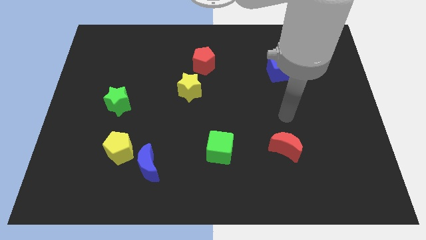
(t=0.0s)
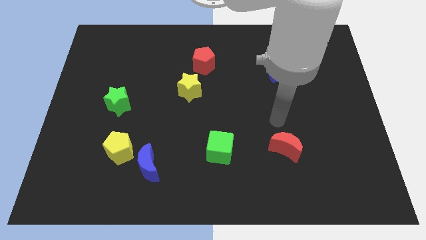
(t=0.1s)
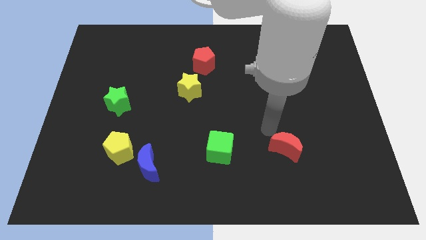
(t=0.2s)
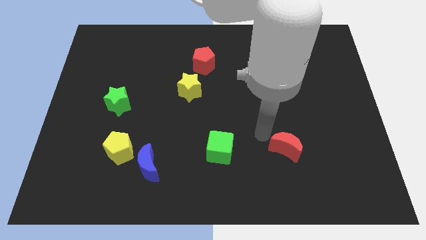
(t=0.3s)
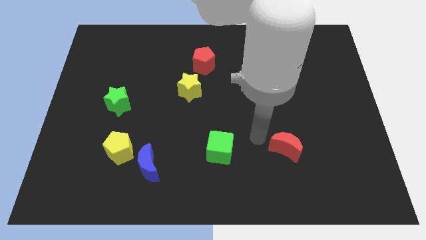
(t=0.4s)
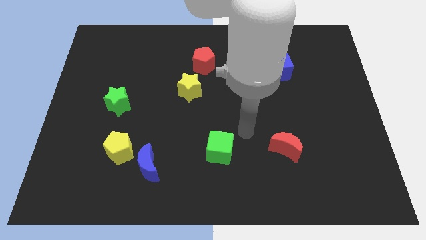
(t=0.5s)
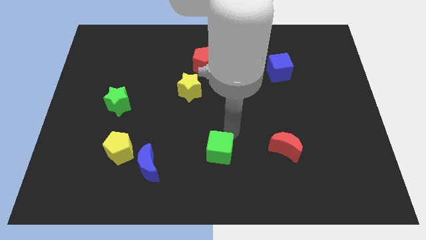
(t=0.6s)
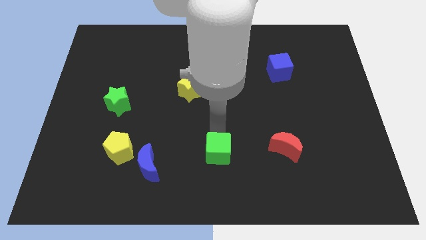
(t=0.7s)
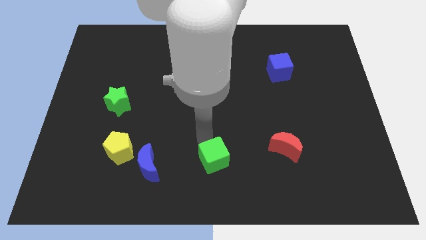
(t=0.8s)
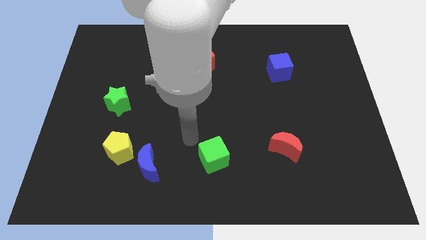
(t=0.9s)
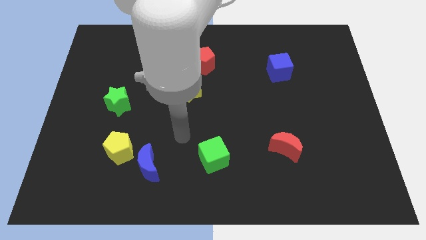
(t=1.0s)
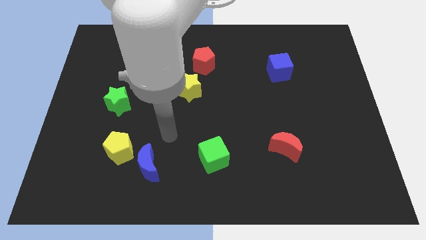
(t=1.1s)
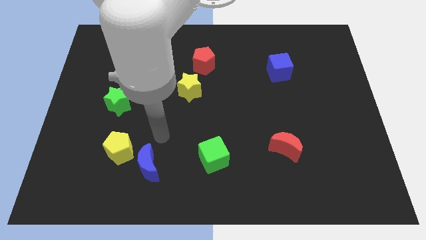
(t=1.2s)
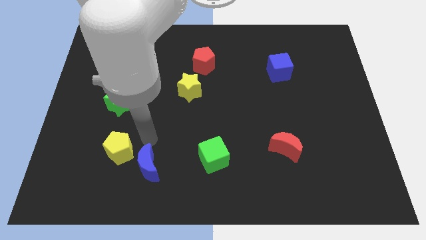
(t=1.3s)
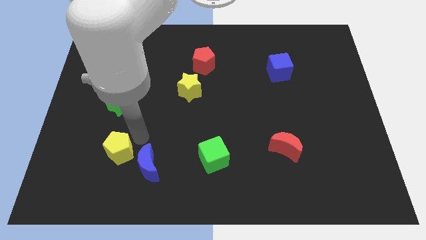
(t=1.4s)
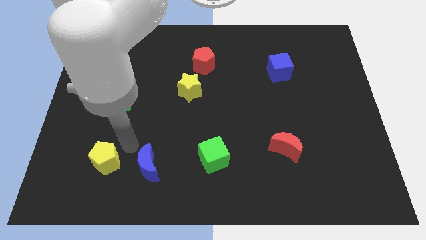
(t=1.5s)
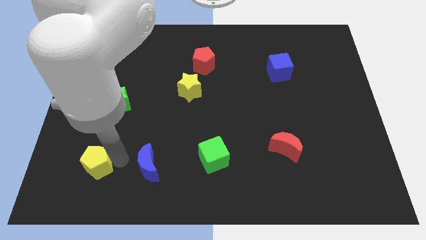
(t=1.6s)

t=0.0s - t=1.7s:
pull the blue moon apart from the yellow pentagon

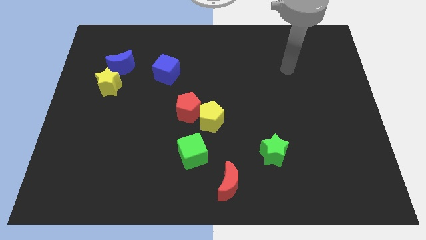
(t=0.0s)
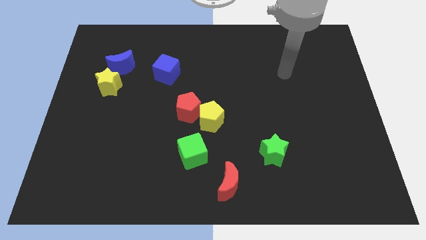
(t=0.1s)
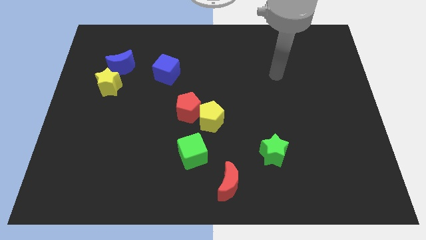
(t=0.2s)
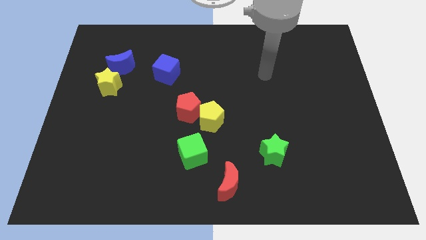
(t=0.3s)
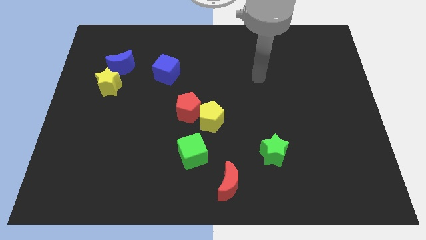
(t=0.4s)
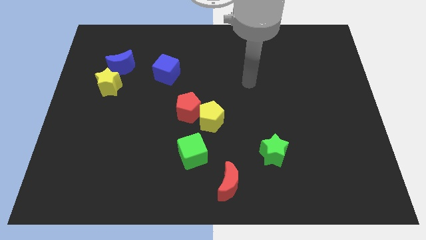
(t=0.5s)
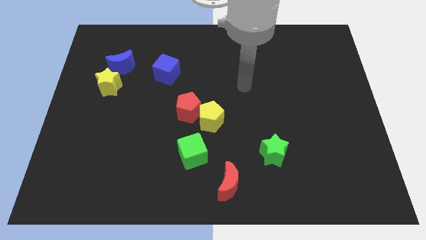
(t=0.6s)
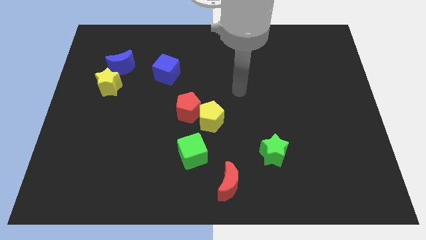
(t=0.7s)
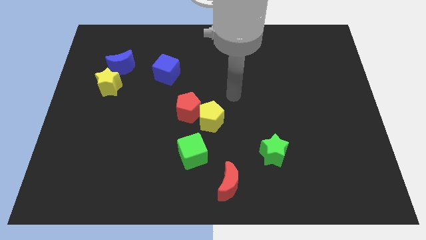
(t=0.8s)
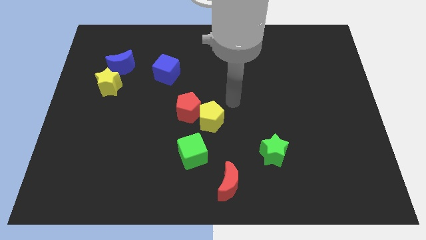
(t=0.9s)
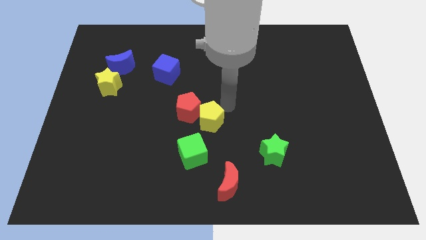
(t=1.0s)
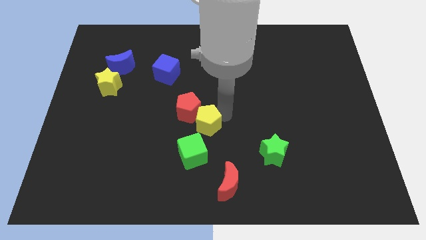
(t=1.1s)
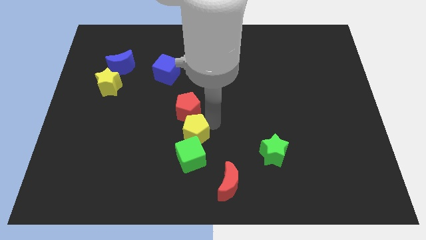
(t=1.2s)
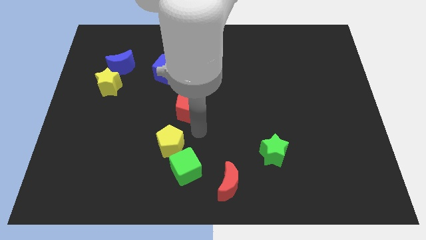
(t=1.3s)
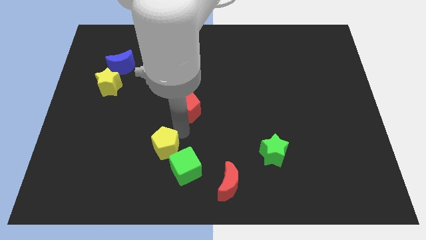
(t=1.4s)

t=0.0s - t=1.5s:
pull the red pentagon apart from the yellow pentagon

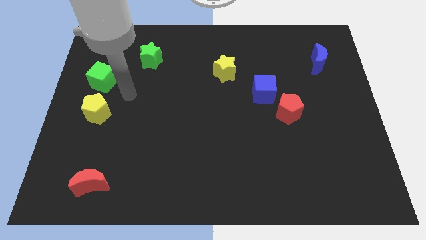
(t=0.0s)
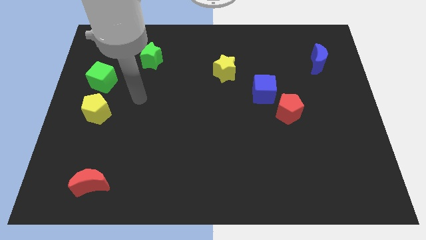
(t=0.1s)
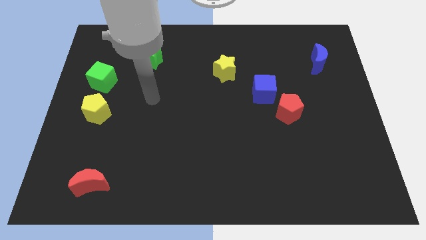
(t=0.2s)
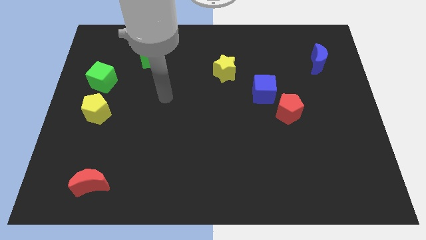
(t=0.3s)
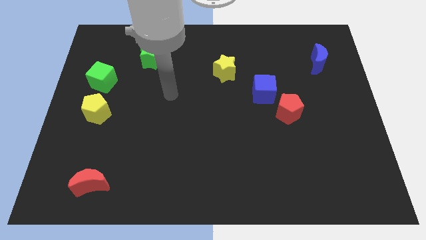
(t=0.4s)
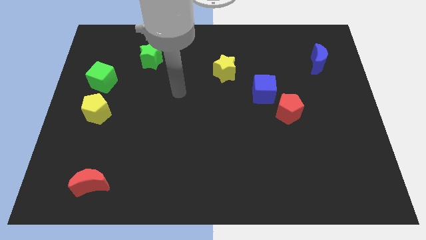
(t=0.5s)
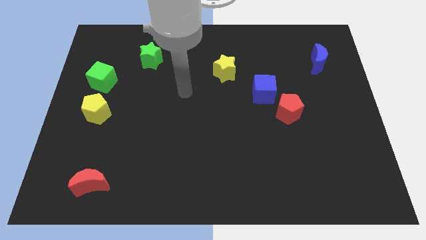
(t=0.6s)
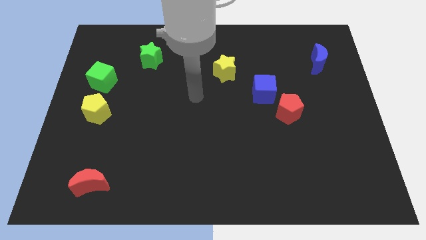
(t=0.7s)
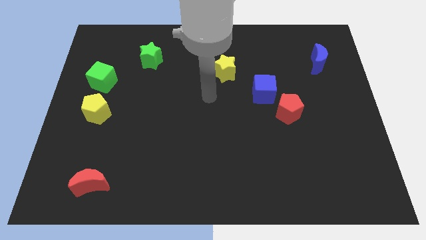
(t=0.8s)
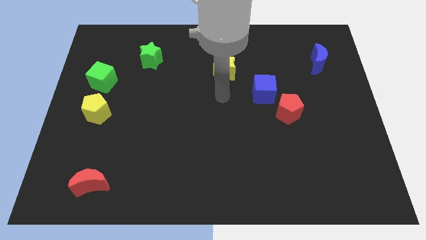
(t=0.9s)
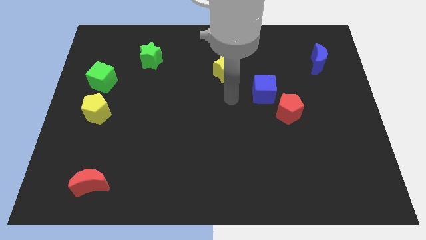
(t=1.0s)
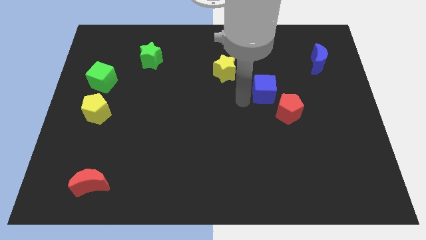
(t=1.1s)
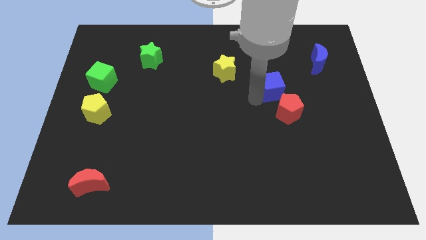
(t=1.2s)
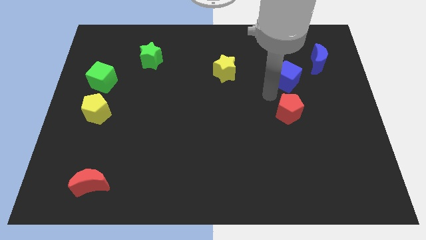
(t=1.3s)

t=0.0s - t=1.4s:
separate the red pentagon from the blue cube

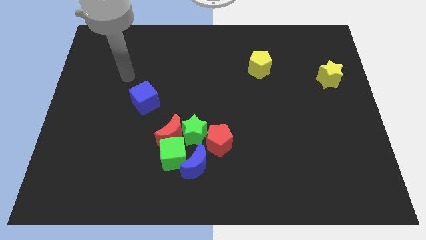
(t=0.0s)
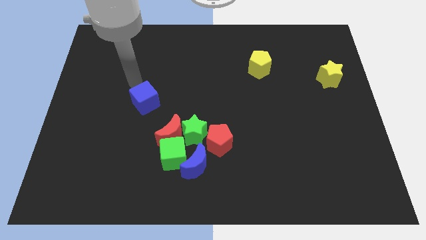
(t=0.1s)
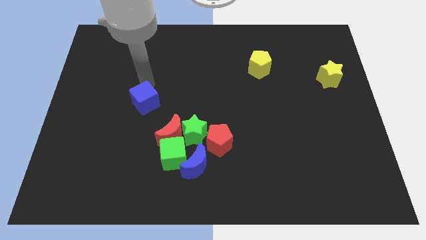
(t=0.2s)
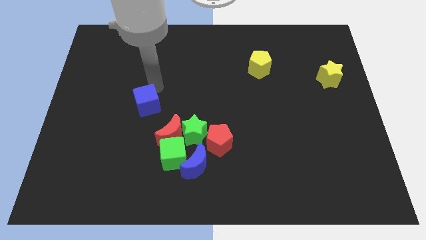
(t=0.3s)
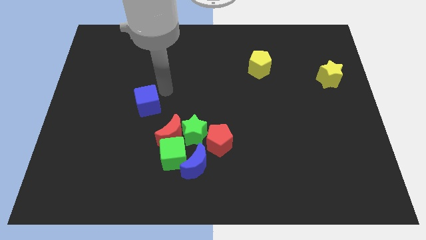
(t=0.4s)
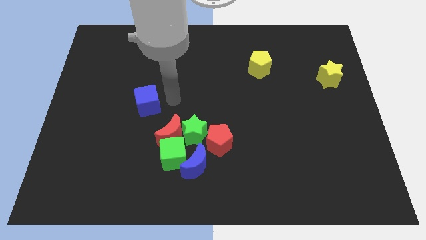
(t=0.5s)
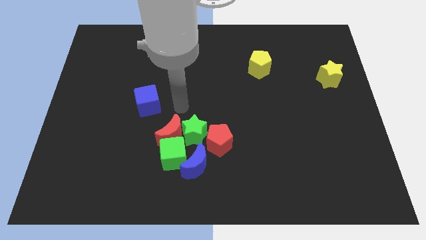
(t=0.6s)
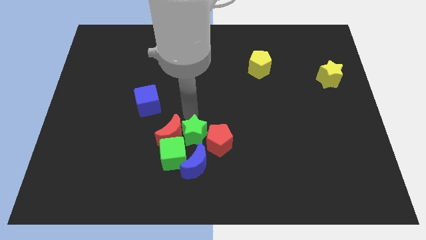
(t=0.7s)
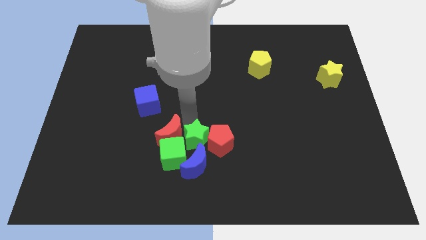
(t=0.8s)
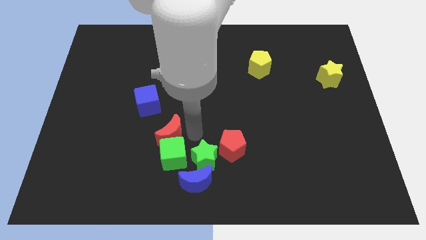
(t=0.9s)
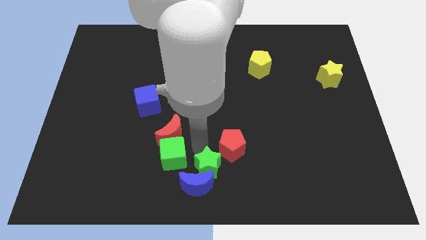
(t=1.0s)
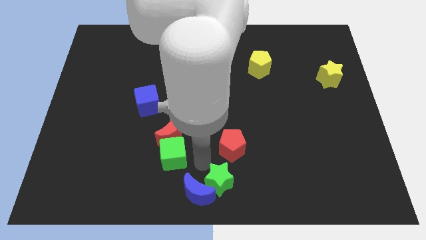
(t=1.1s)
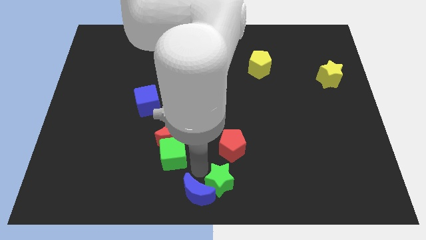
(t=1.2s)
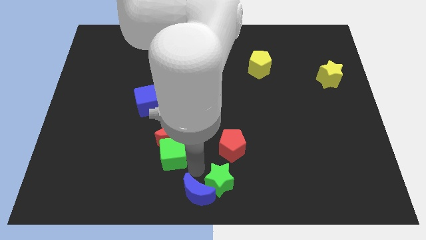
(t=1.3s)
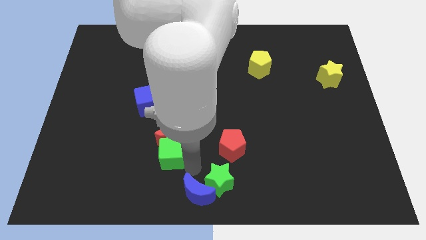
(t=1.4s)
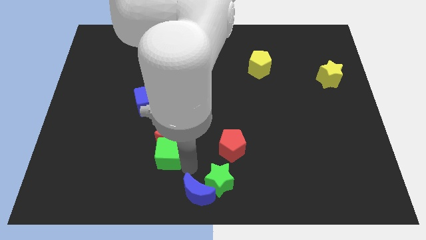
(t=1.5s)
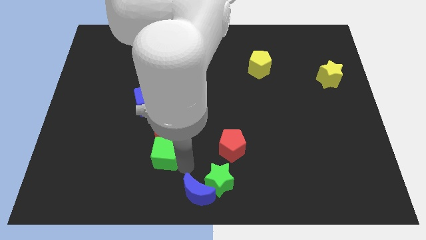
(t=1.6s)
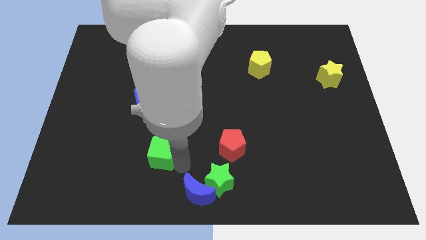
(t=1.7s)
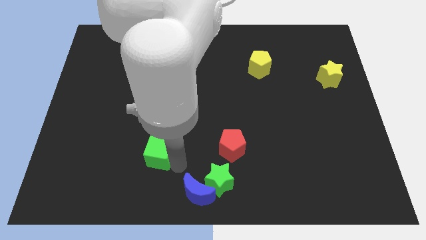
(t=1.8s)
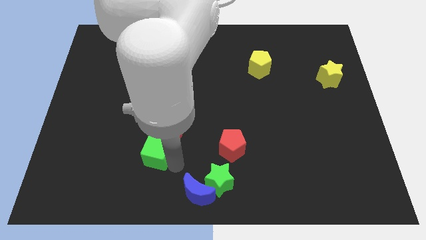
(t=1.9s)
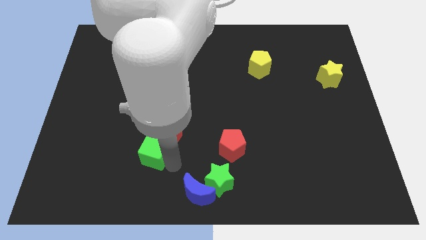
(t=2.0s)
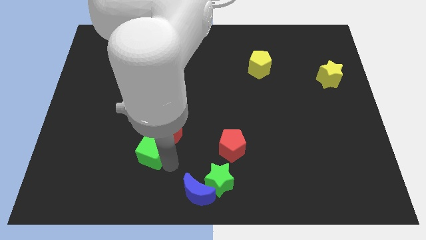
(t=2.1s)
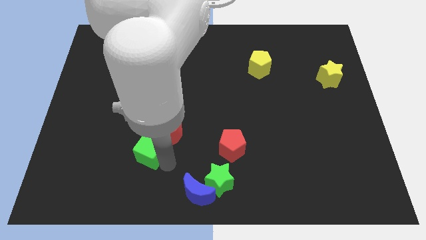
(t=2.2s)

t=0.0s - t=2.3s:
move the green cube away from the red moon, blue moon, and green star

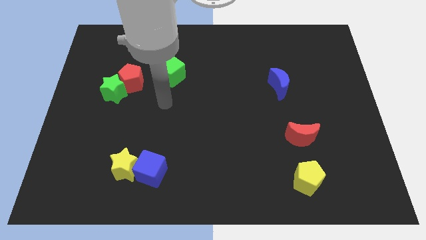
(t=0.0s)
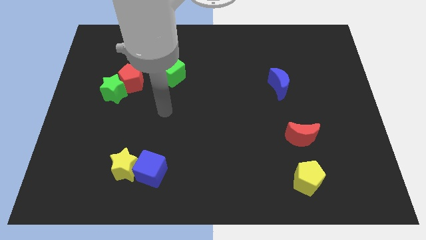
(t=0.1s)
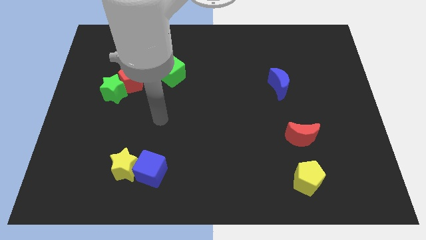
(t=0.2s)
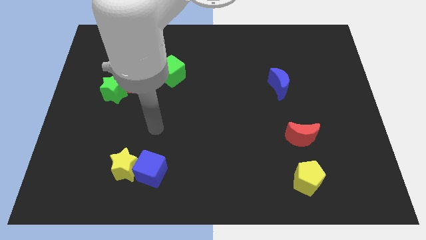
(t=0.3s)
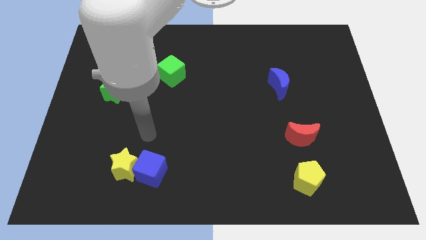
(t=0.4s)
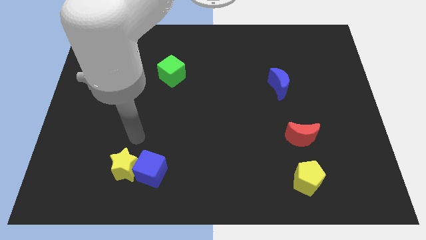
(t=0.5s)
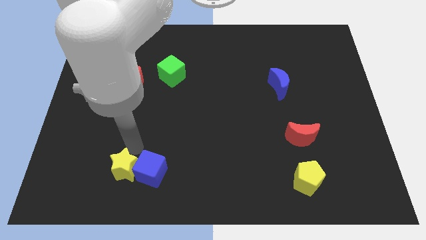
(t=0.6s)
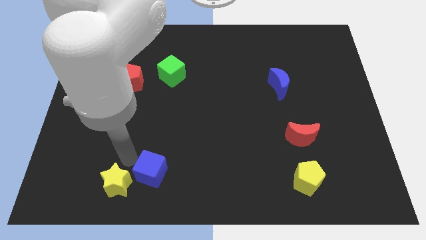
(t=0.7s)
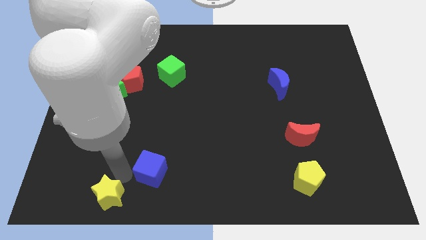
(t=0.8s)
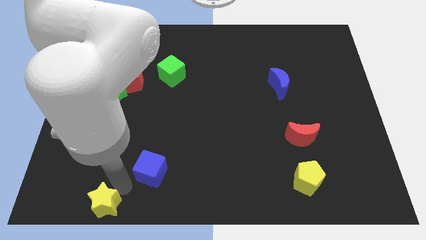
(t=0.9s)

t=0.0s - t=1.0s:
separate the blue cube from the yellow star

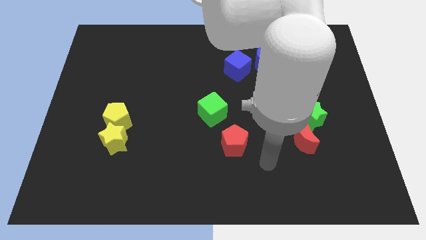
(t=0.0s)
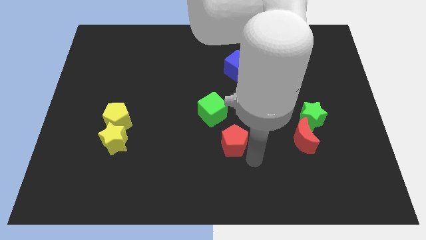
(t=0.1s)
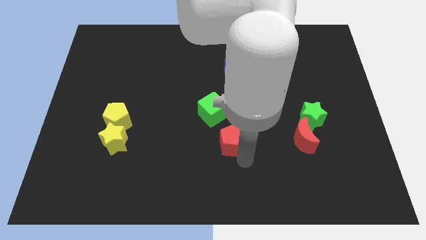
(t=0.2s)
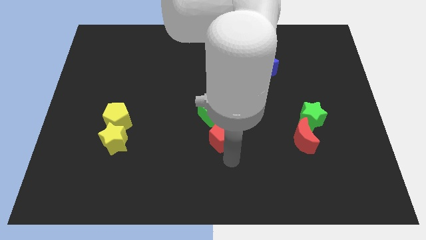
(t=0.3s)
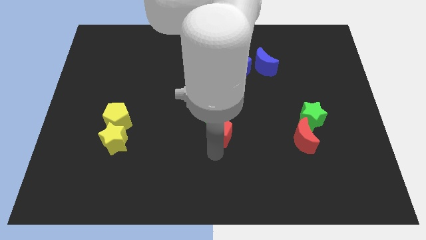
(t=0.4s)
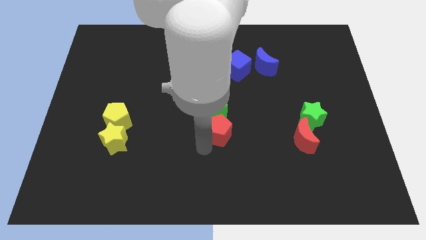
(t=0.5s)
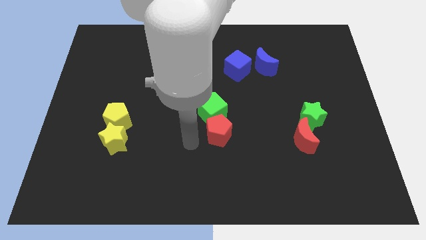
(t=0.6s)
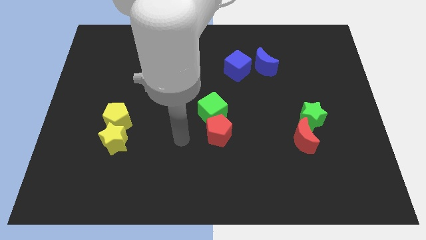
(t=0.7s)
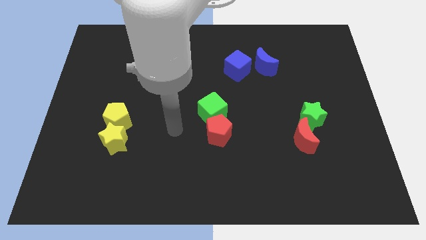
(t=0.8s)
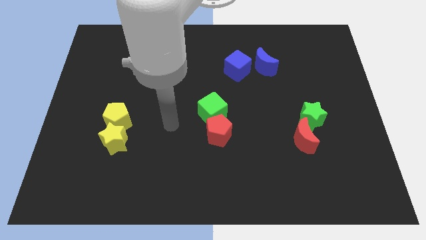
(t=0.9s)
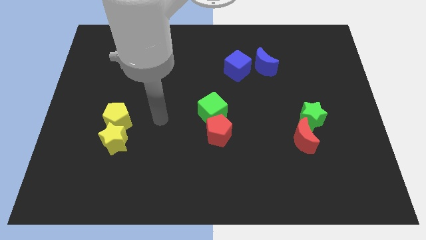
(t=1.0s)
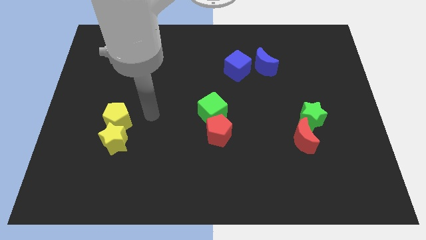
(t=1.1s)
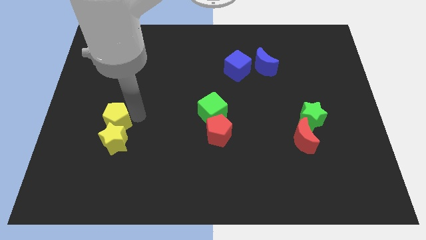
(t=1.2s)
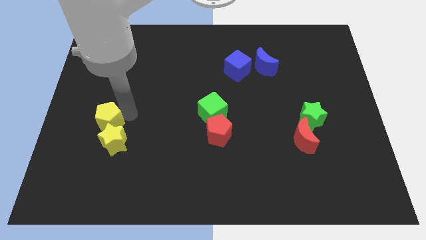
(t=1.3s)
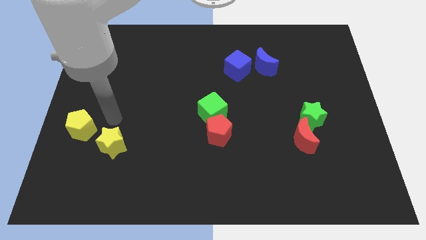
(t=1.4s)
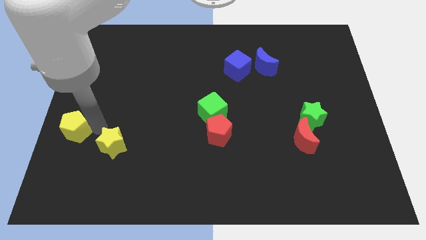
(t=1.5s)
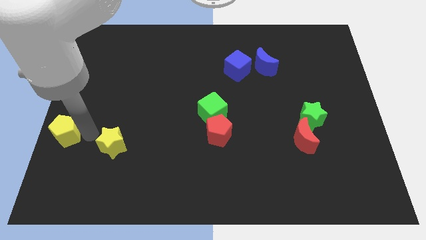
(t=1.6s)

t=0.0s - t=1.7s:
separate the yellow star from the yellow pentagon
